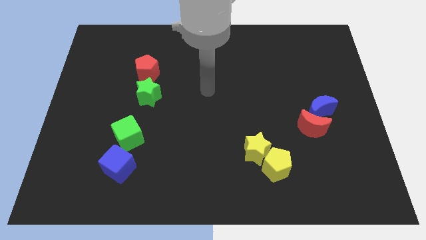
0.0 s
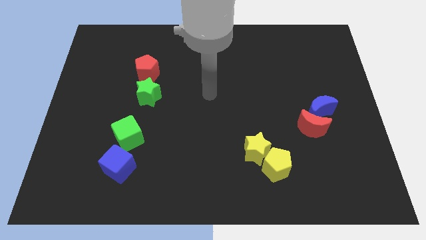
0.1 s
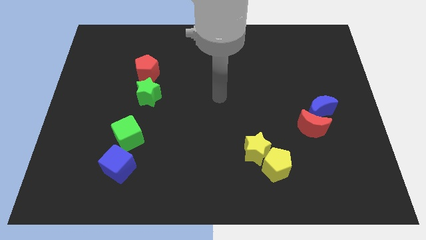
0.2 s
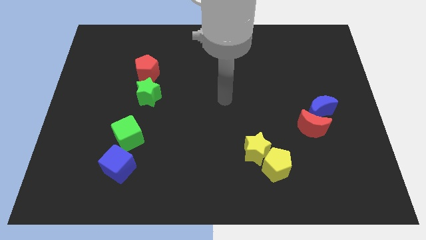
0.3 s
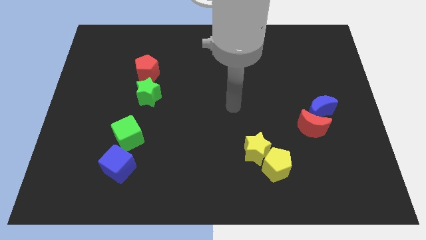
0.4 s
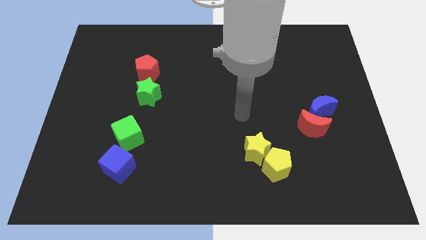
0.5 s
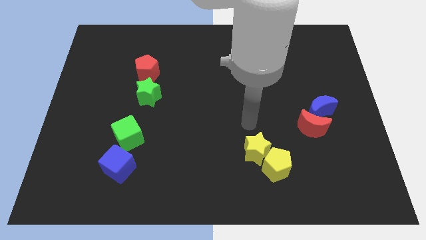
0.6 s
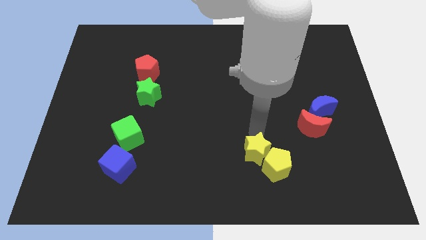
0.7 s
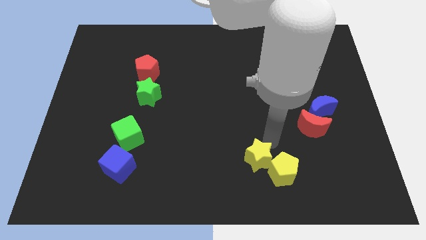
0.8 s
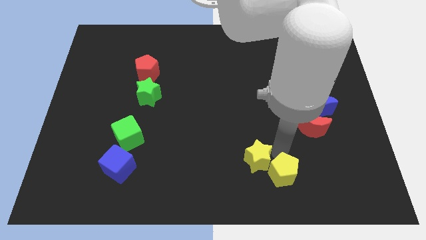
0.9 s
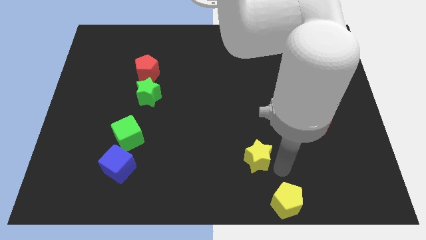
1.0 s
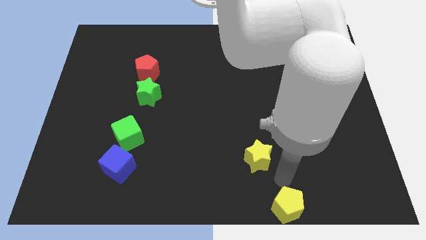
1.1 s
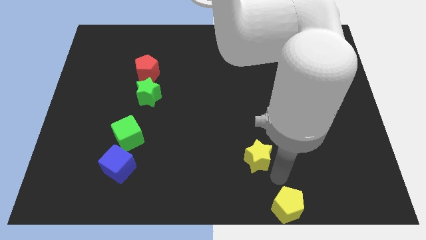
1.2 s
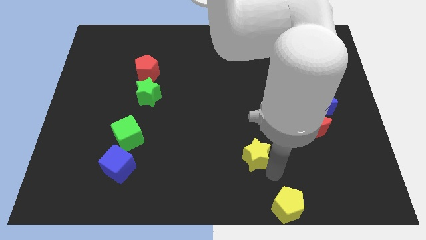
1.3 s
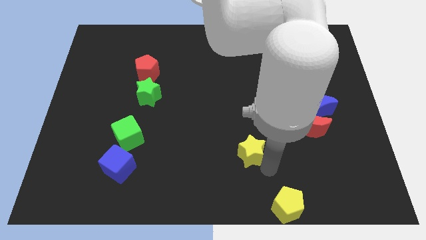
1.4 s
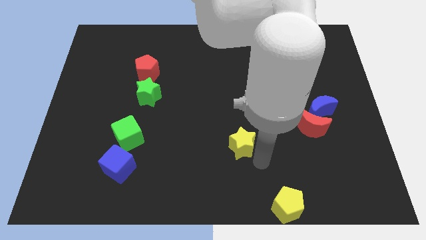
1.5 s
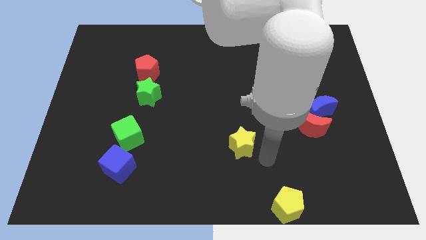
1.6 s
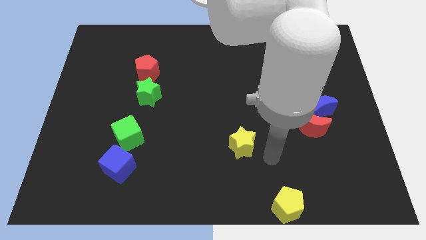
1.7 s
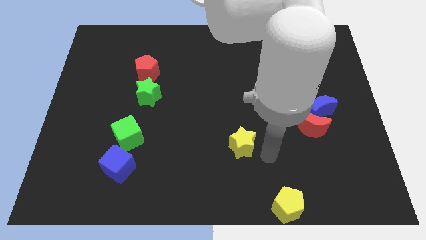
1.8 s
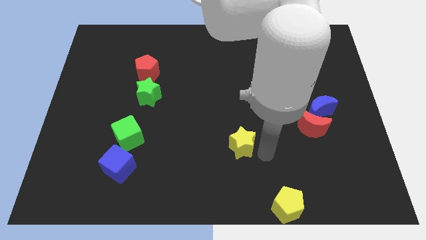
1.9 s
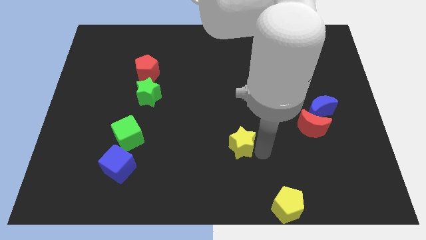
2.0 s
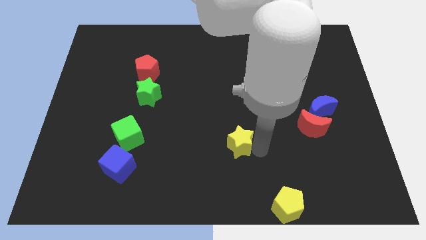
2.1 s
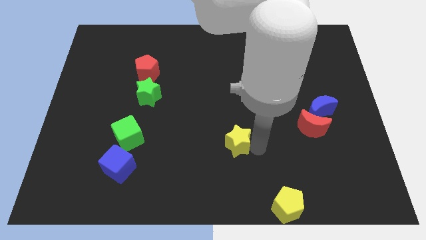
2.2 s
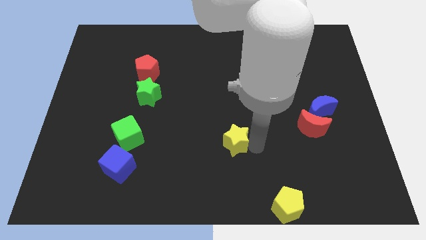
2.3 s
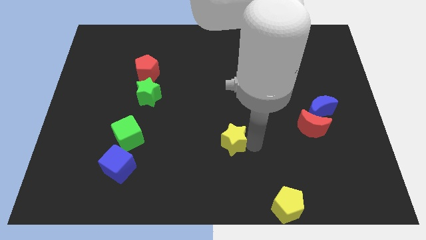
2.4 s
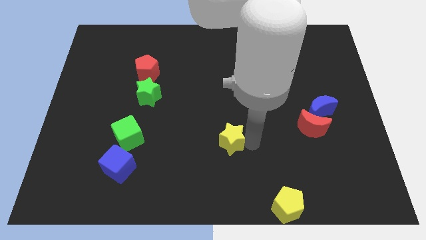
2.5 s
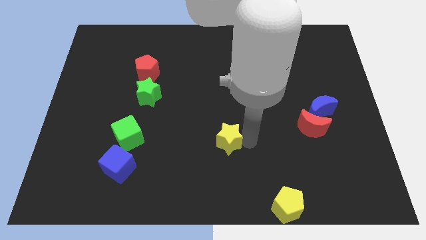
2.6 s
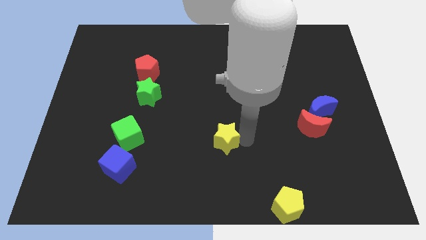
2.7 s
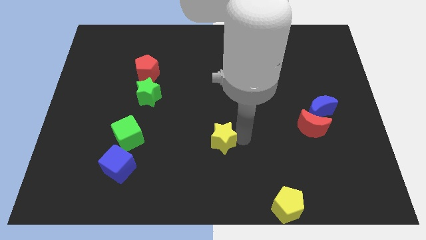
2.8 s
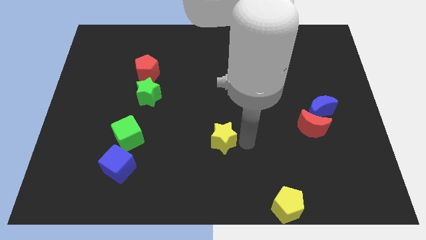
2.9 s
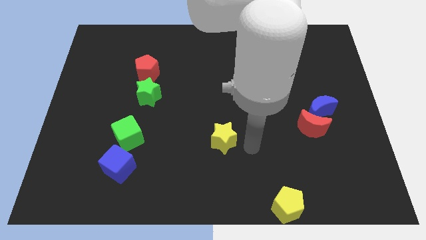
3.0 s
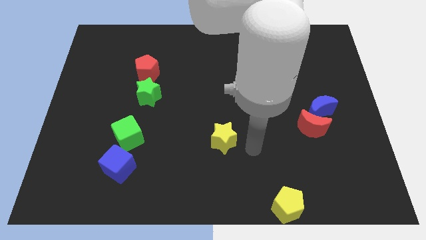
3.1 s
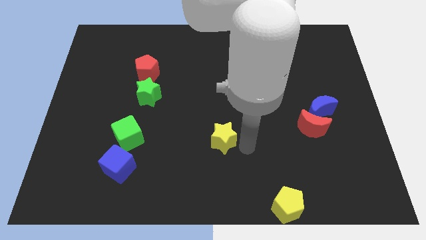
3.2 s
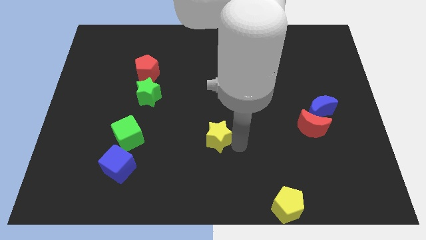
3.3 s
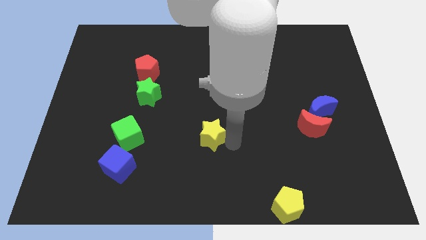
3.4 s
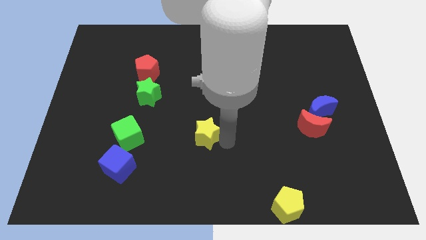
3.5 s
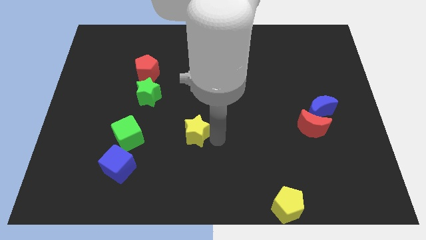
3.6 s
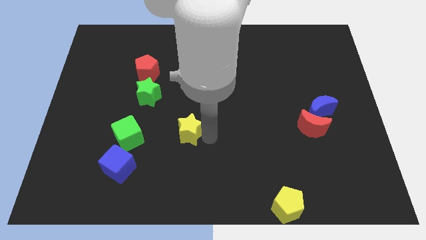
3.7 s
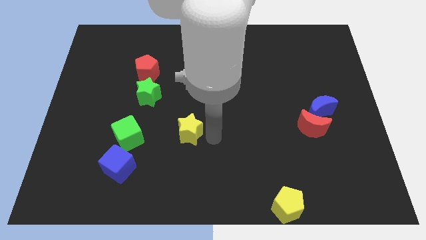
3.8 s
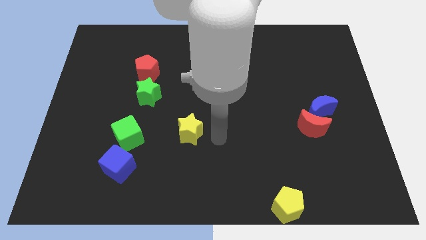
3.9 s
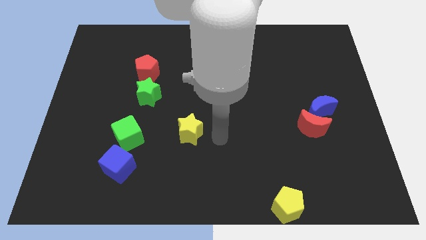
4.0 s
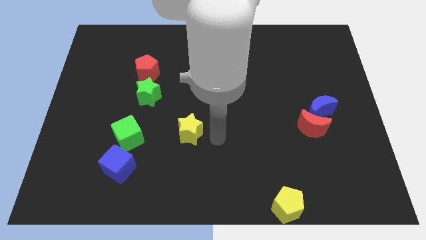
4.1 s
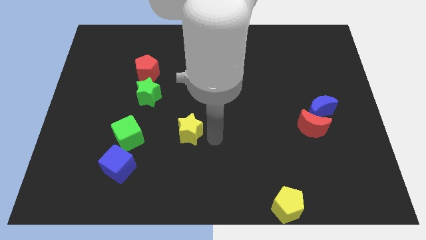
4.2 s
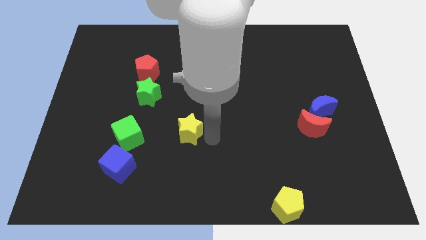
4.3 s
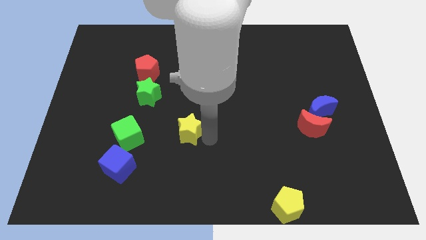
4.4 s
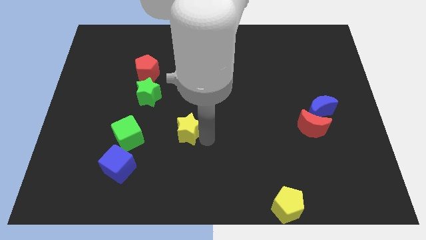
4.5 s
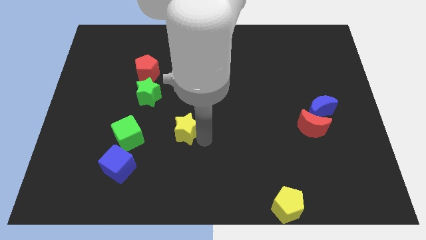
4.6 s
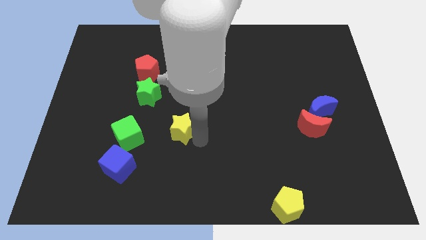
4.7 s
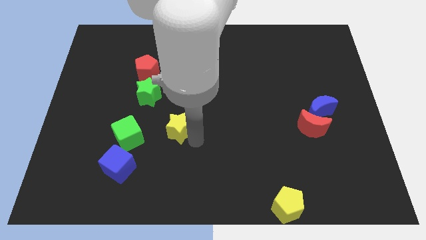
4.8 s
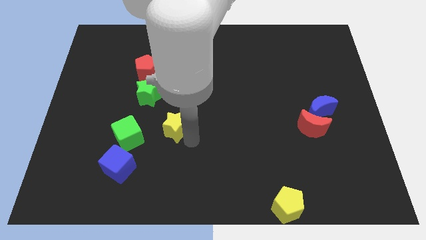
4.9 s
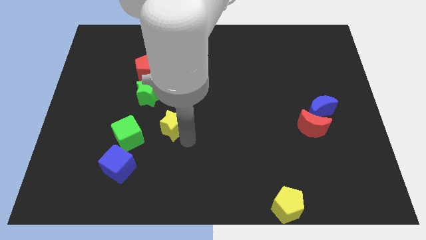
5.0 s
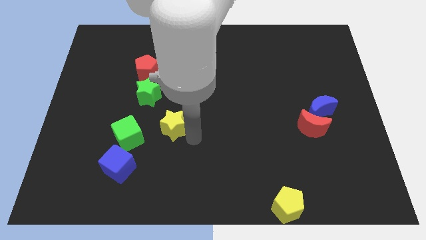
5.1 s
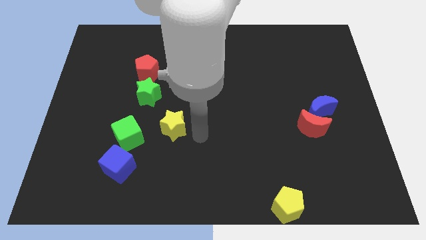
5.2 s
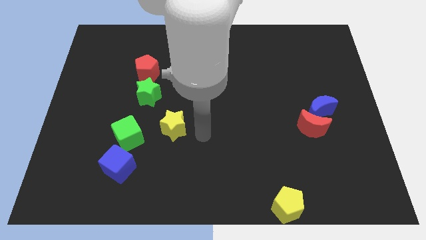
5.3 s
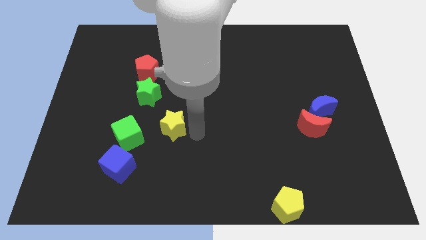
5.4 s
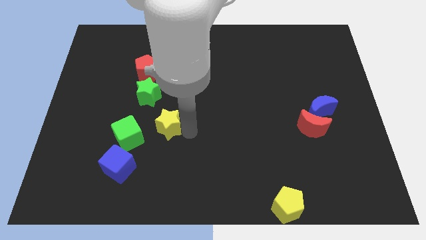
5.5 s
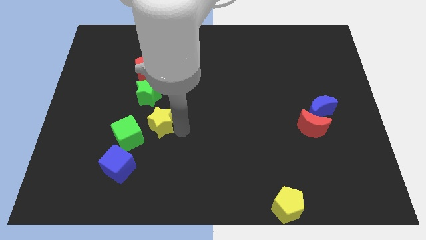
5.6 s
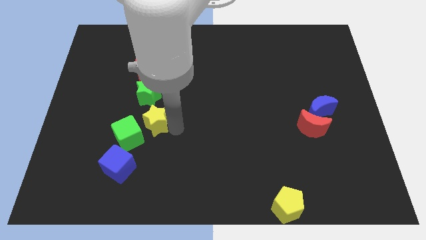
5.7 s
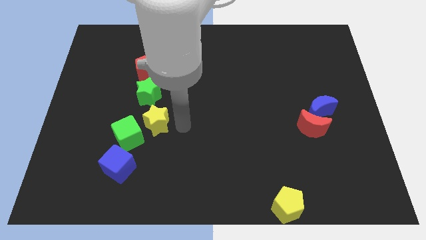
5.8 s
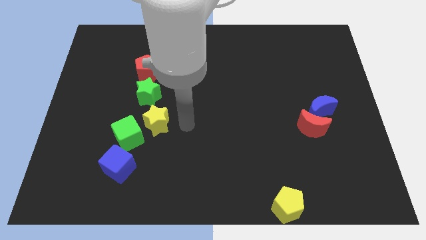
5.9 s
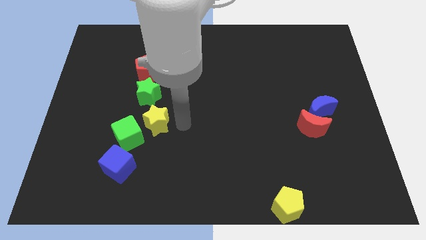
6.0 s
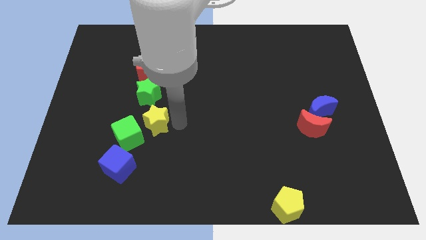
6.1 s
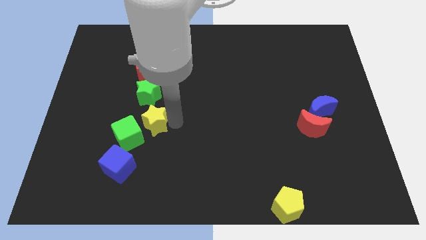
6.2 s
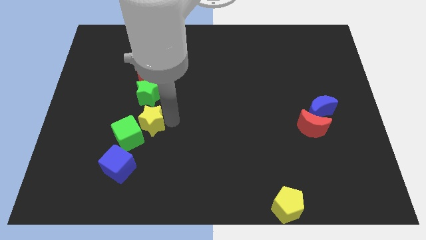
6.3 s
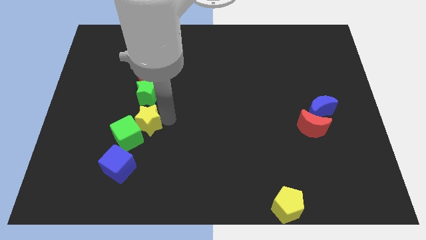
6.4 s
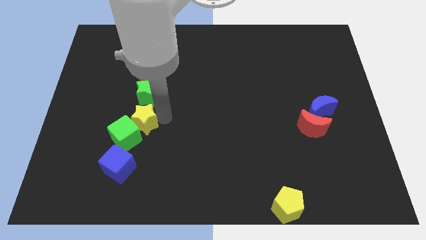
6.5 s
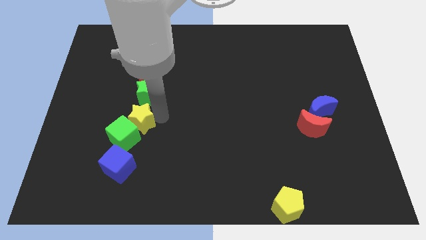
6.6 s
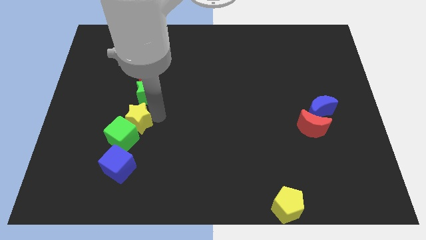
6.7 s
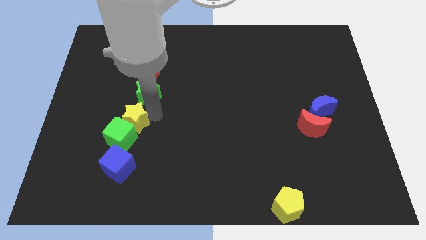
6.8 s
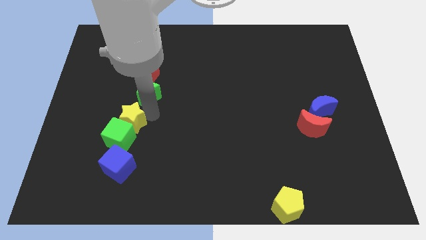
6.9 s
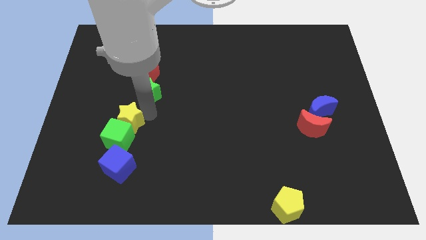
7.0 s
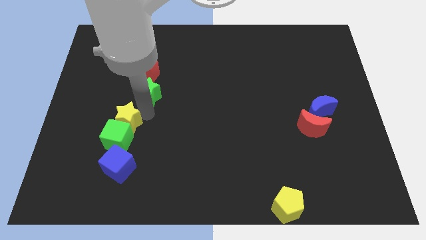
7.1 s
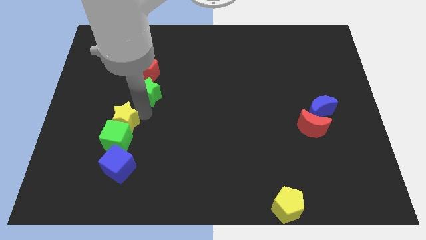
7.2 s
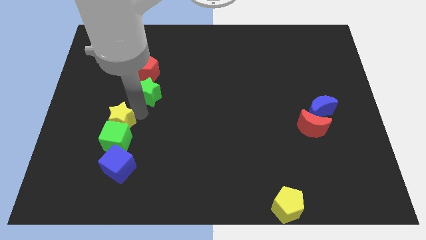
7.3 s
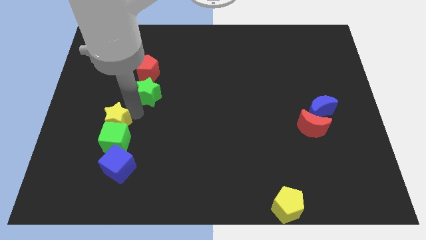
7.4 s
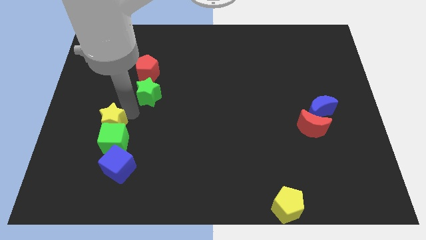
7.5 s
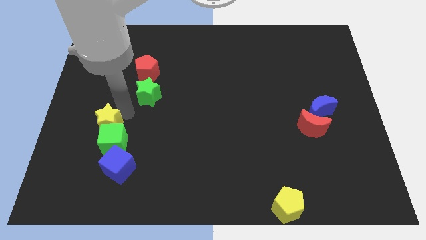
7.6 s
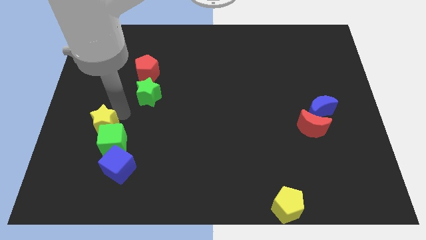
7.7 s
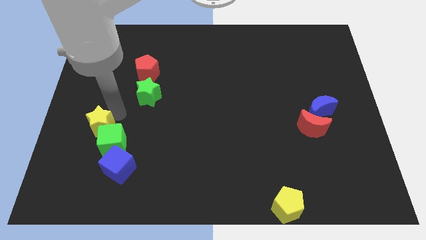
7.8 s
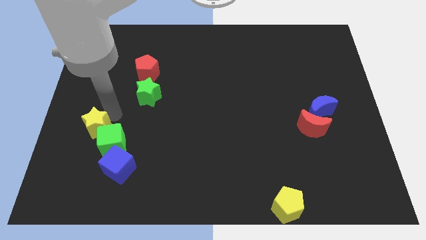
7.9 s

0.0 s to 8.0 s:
push the yellow star to the left of the green cube
